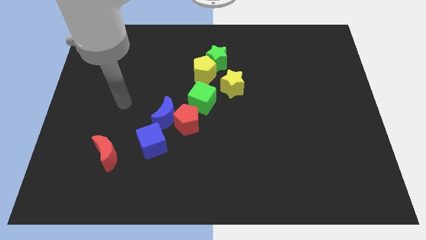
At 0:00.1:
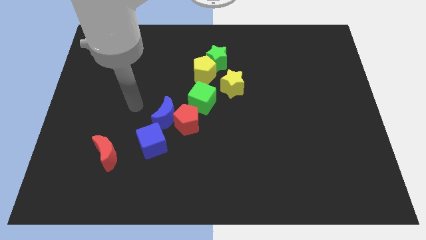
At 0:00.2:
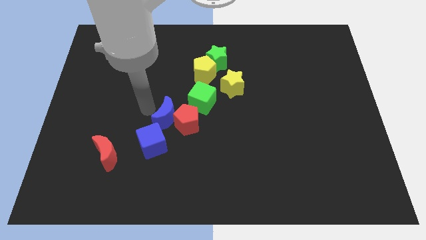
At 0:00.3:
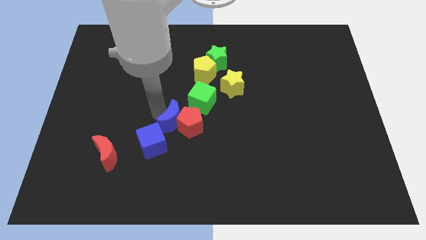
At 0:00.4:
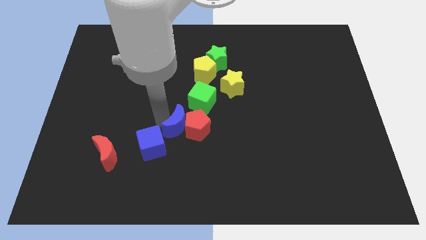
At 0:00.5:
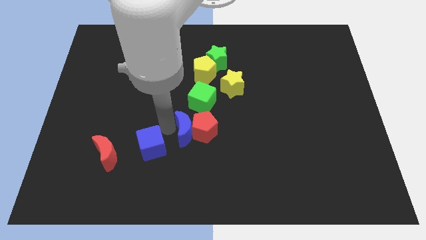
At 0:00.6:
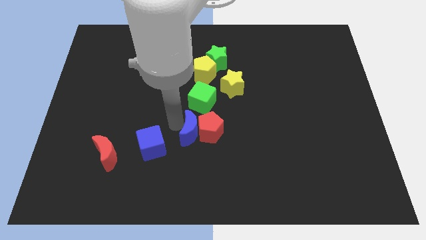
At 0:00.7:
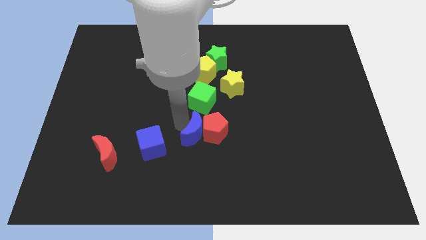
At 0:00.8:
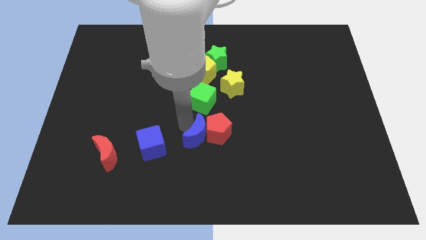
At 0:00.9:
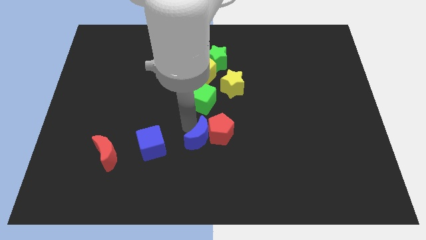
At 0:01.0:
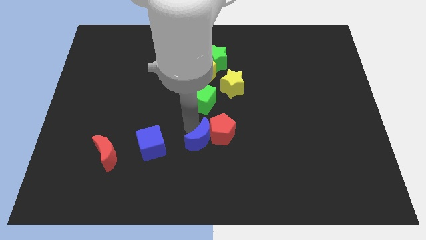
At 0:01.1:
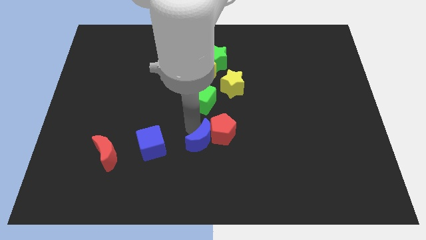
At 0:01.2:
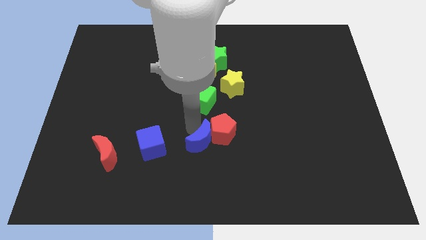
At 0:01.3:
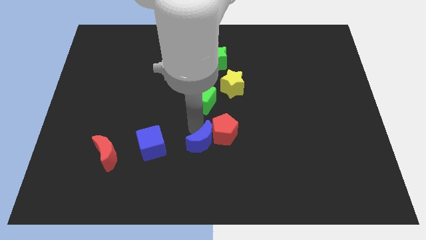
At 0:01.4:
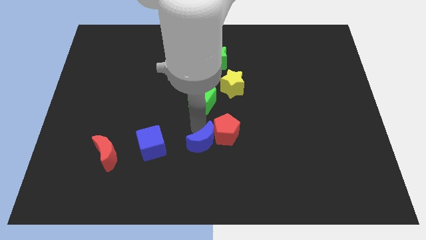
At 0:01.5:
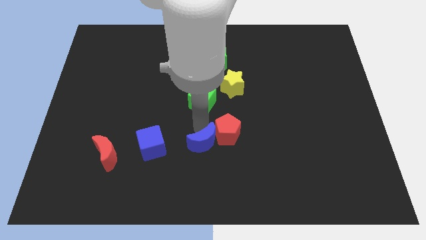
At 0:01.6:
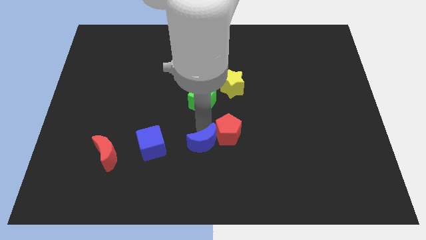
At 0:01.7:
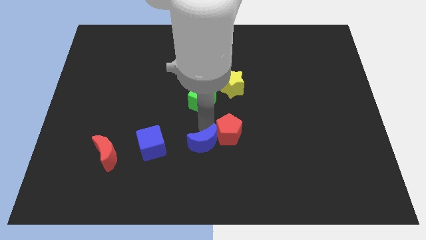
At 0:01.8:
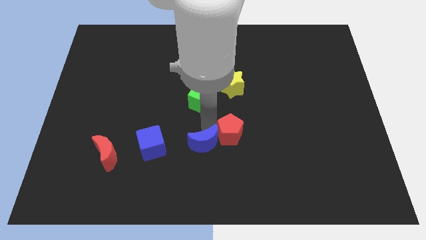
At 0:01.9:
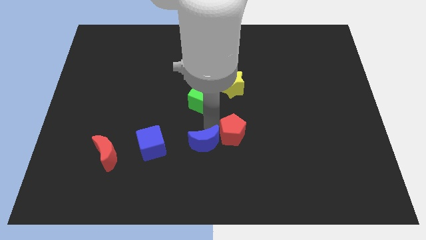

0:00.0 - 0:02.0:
move the red pentagon away from the group of blocks

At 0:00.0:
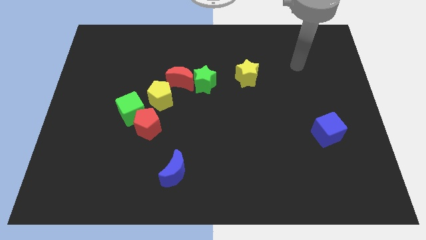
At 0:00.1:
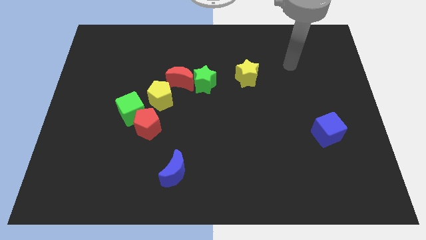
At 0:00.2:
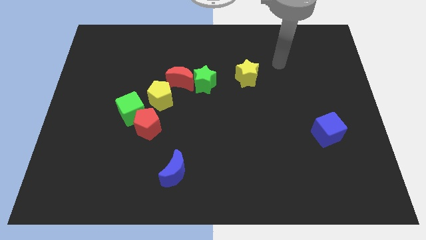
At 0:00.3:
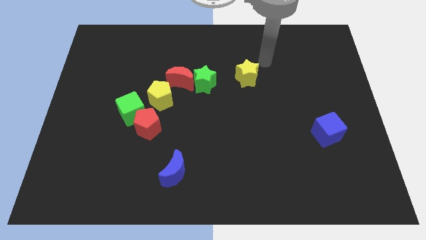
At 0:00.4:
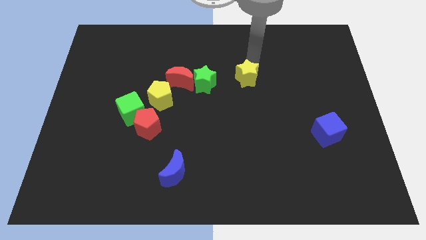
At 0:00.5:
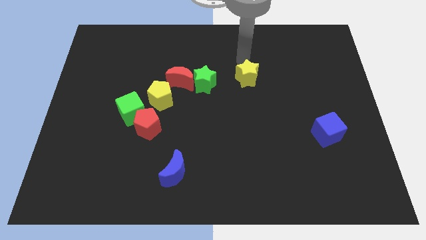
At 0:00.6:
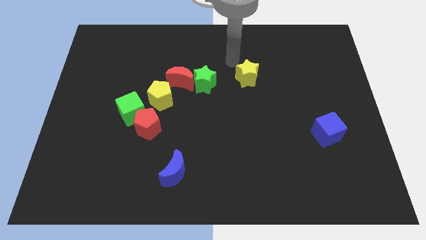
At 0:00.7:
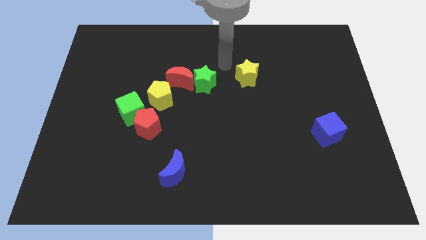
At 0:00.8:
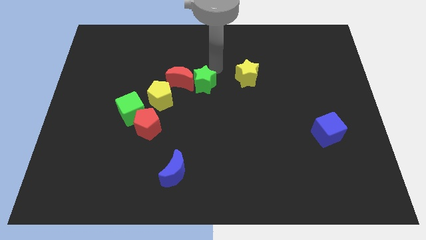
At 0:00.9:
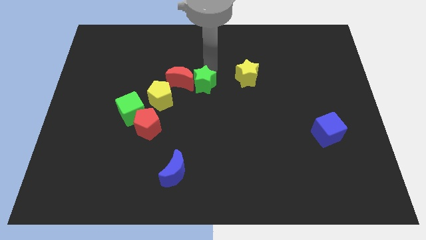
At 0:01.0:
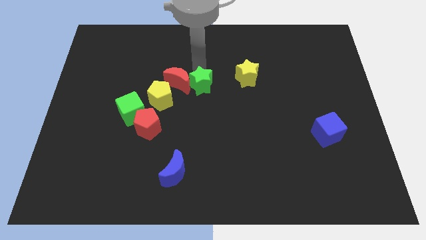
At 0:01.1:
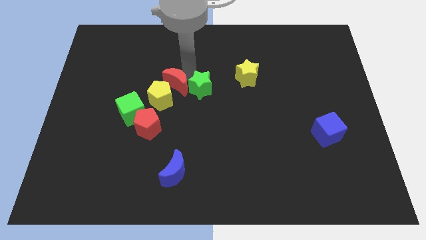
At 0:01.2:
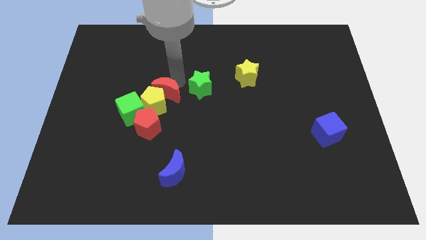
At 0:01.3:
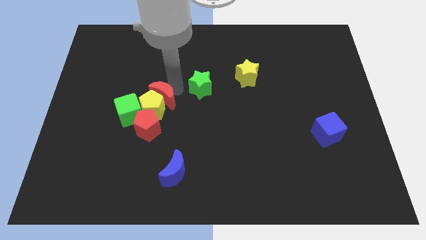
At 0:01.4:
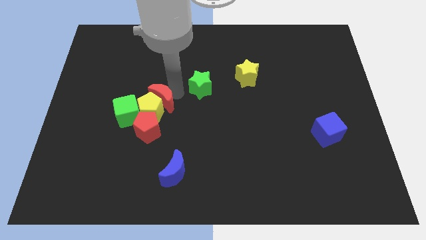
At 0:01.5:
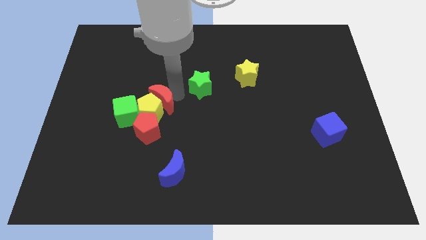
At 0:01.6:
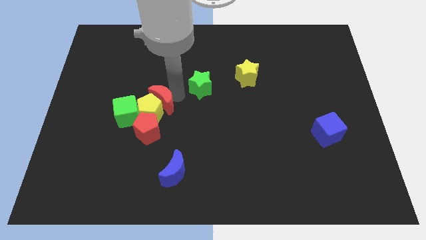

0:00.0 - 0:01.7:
separate the green star from the red moon

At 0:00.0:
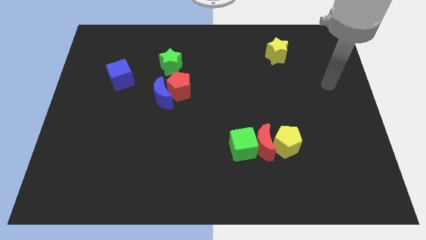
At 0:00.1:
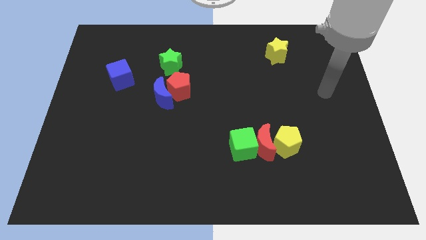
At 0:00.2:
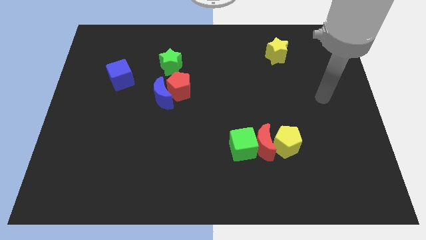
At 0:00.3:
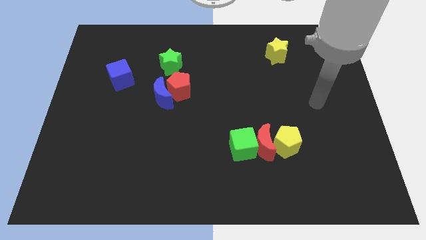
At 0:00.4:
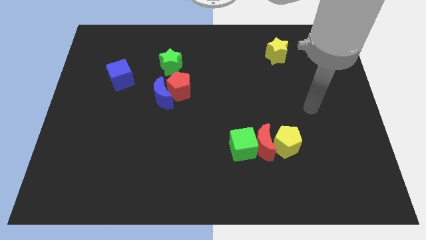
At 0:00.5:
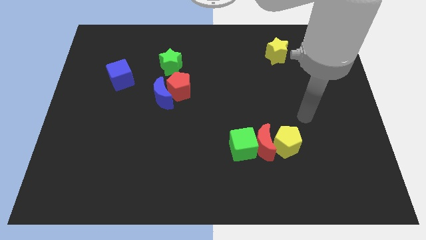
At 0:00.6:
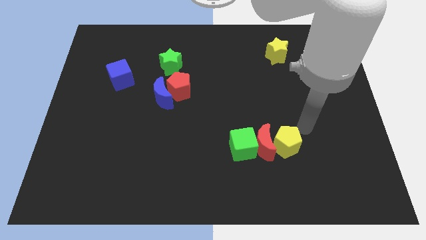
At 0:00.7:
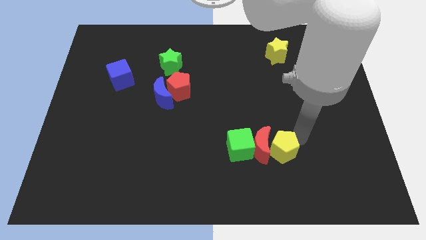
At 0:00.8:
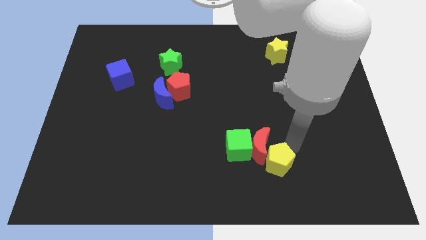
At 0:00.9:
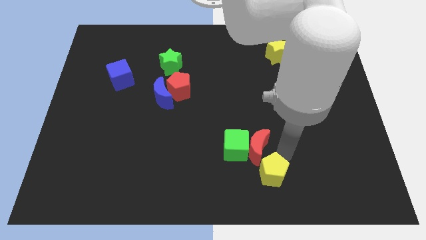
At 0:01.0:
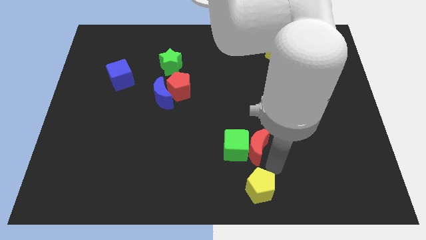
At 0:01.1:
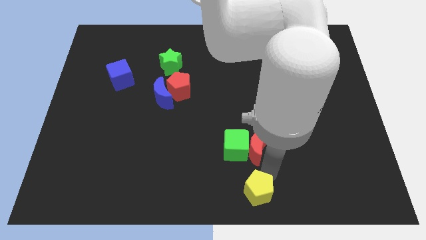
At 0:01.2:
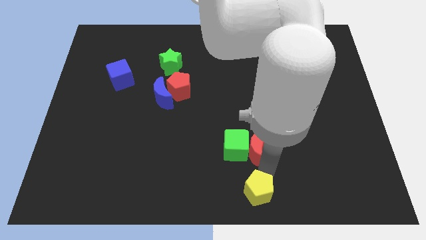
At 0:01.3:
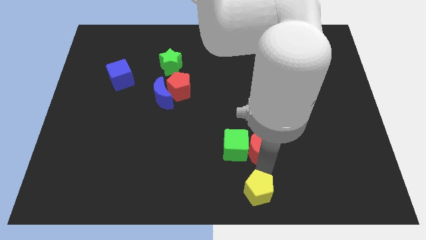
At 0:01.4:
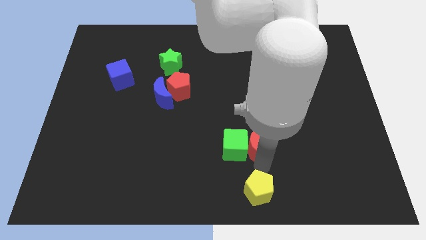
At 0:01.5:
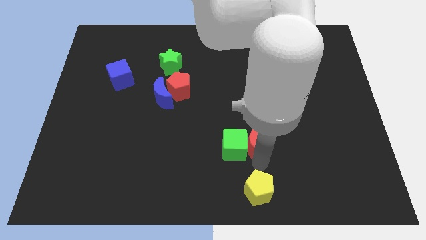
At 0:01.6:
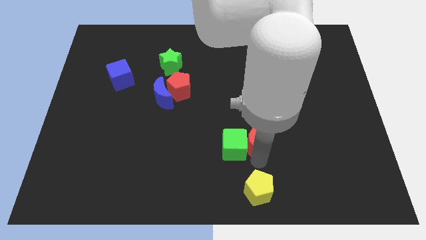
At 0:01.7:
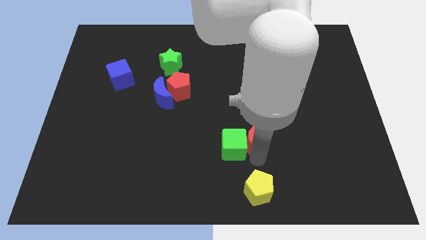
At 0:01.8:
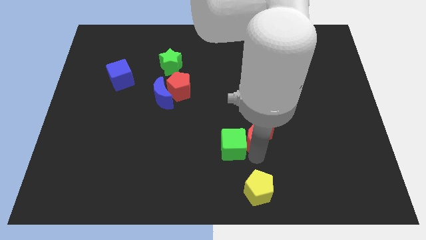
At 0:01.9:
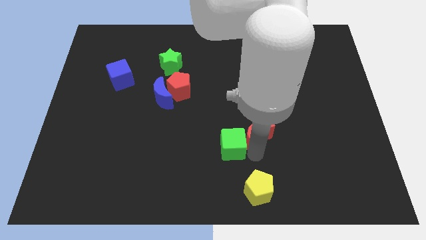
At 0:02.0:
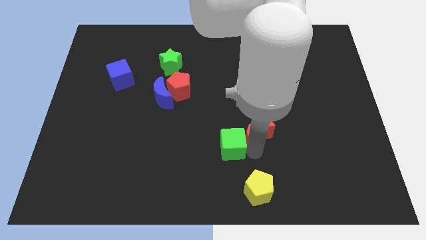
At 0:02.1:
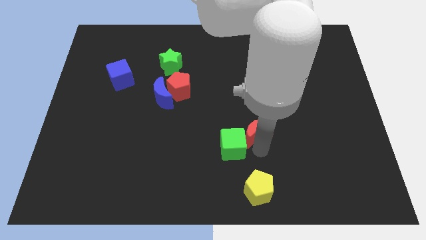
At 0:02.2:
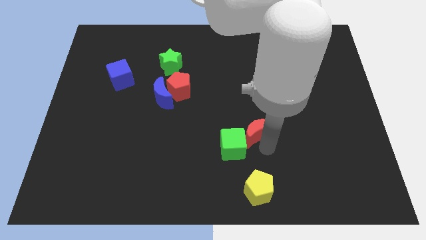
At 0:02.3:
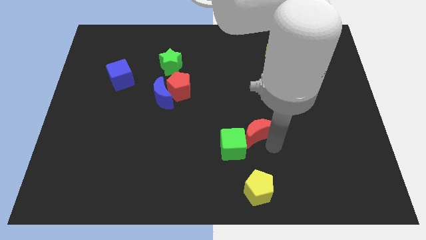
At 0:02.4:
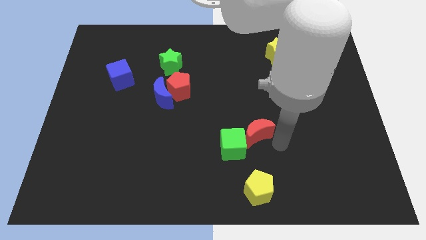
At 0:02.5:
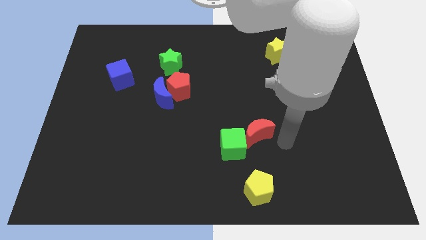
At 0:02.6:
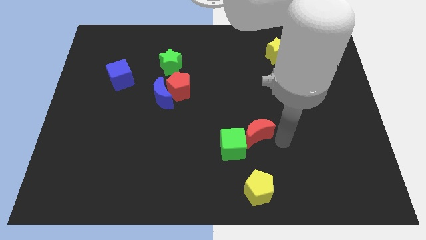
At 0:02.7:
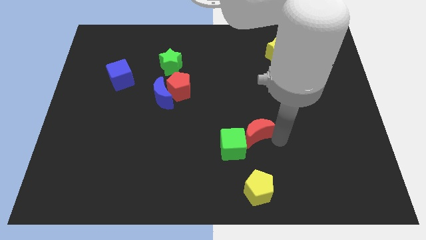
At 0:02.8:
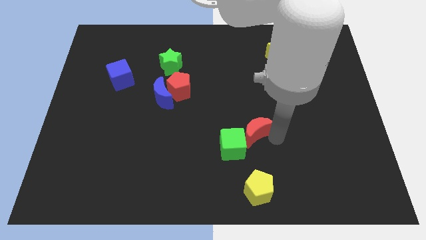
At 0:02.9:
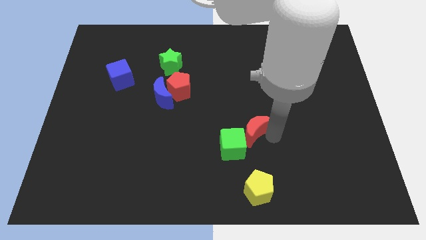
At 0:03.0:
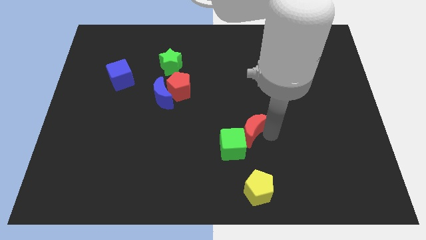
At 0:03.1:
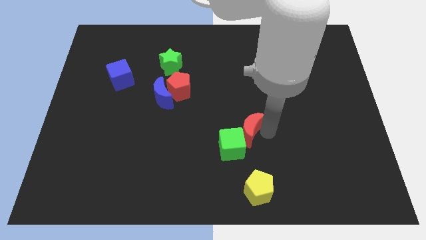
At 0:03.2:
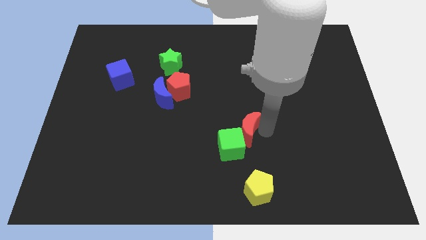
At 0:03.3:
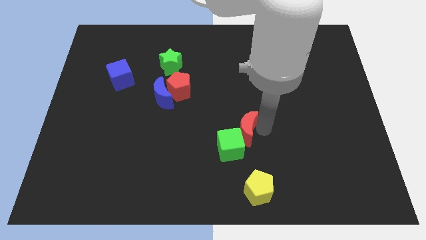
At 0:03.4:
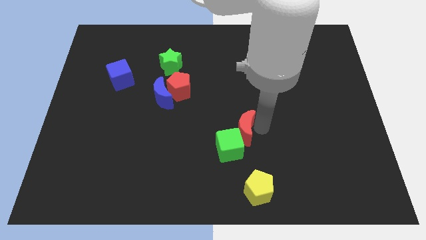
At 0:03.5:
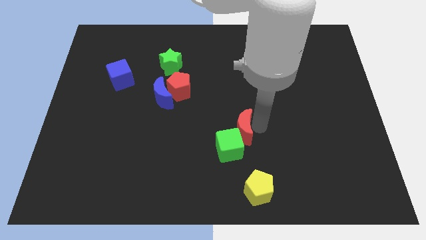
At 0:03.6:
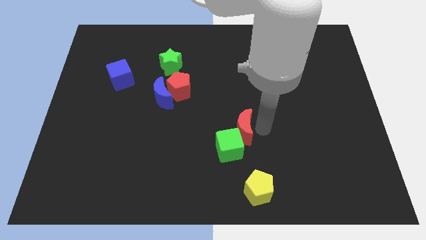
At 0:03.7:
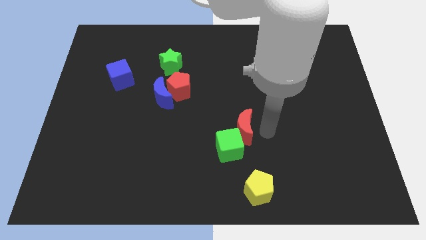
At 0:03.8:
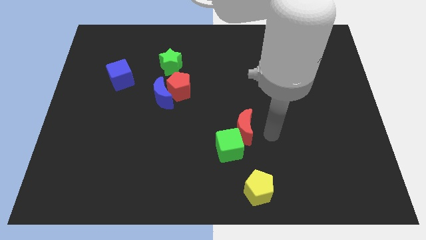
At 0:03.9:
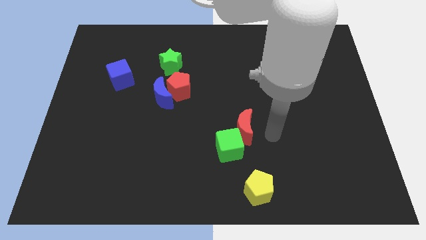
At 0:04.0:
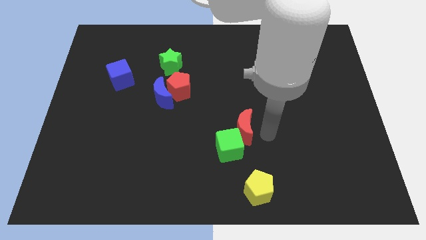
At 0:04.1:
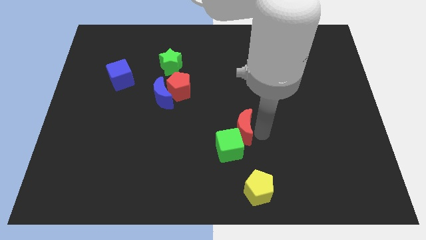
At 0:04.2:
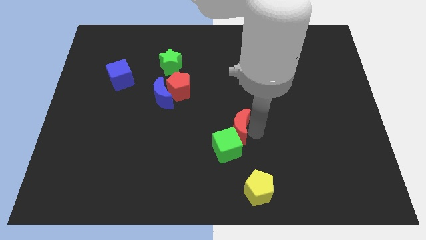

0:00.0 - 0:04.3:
move the red moon away from the green cube and yellow pentagon

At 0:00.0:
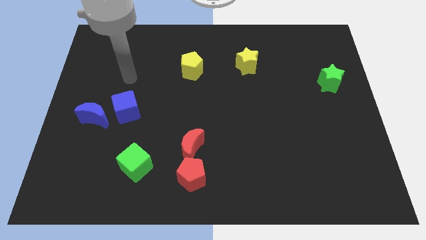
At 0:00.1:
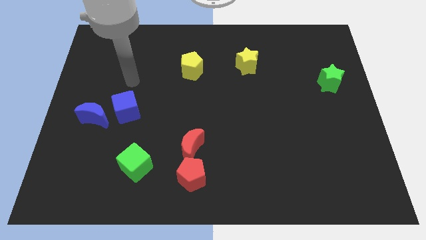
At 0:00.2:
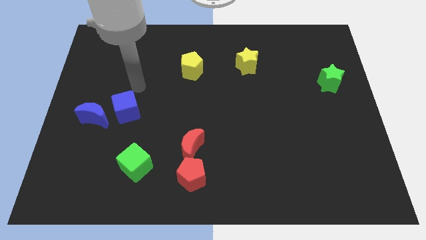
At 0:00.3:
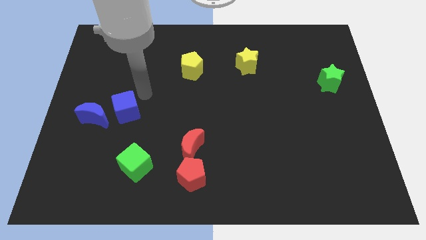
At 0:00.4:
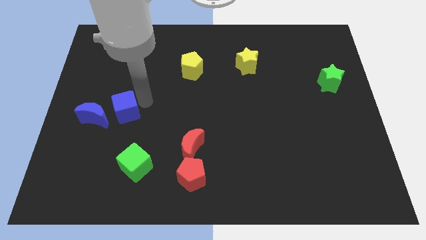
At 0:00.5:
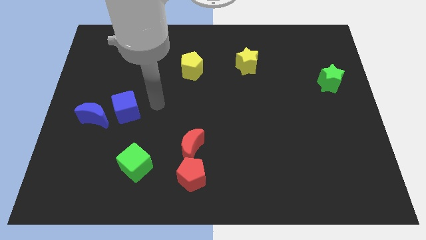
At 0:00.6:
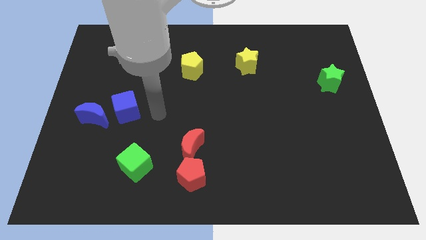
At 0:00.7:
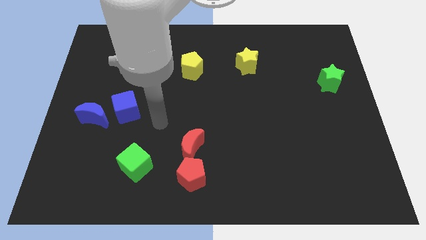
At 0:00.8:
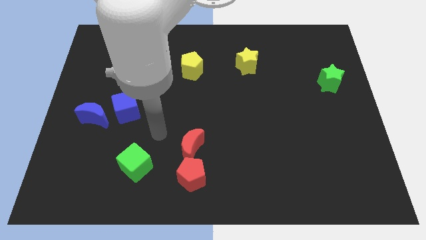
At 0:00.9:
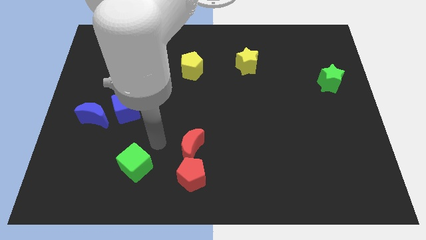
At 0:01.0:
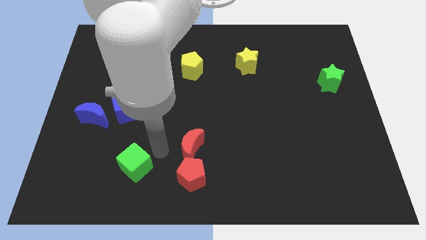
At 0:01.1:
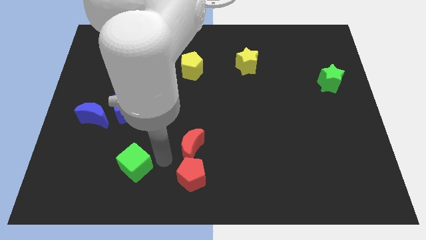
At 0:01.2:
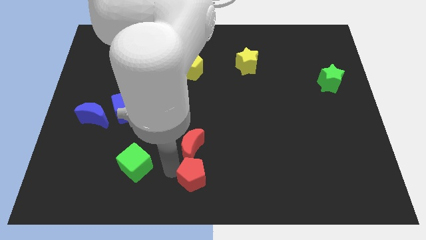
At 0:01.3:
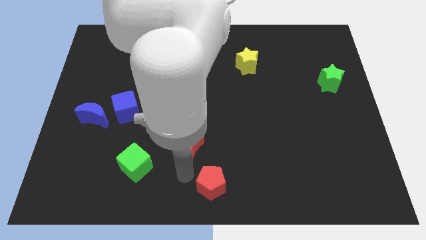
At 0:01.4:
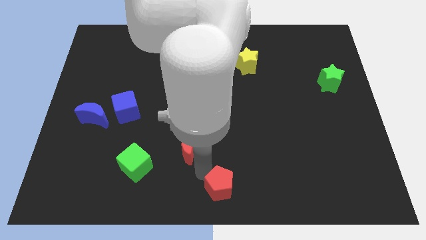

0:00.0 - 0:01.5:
pull the red moon apart from the red pentagon

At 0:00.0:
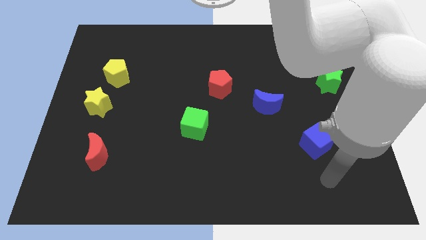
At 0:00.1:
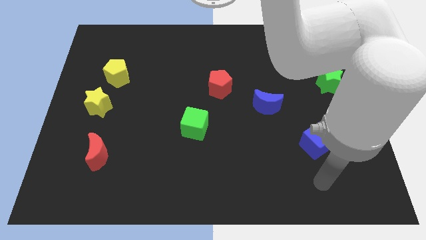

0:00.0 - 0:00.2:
move the yellow star away from the yellow pentagon
